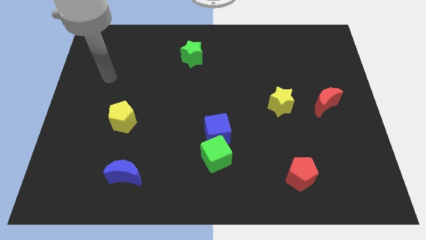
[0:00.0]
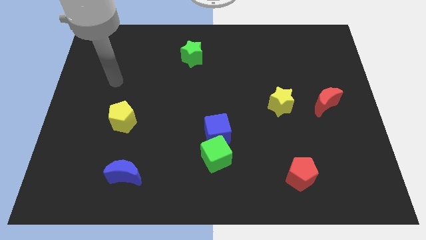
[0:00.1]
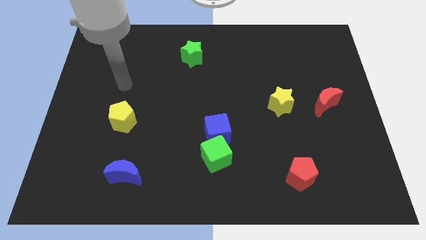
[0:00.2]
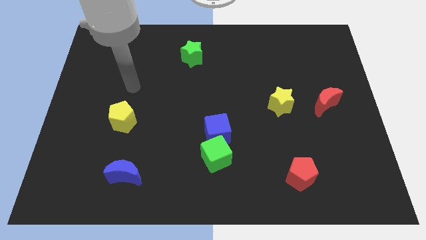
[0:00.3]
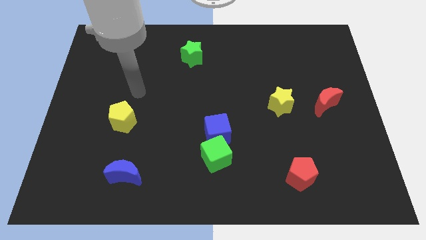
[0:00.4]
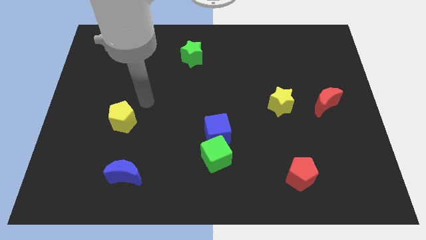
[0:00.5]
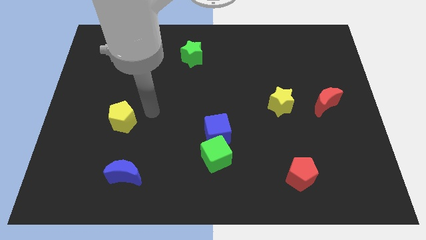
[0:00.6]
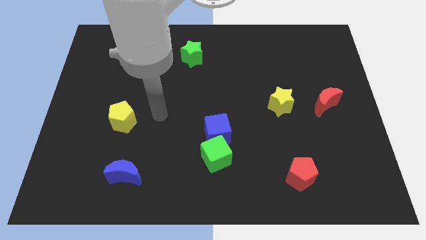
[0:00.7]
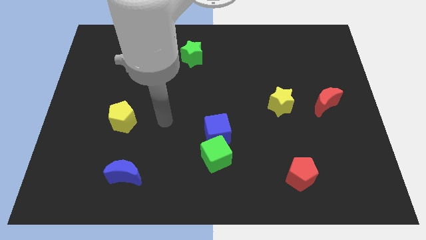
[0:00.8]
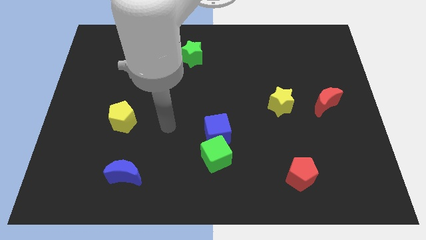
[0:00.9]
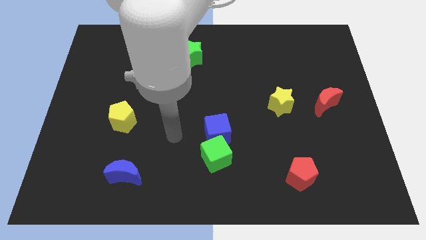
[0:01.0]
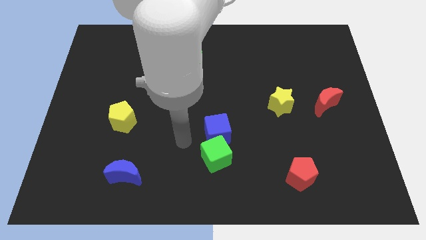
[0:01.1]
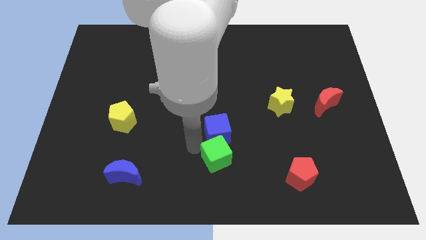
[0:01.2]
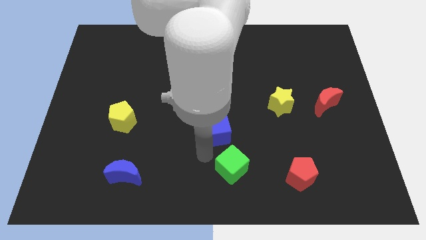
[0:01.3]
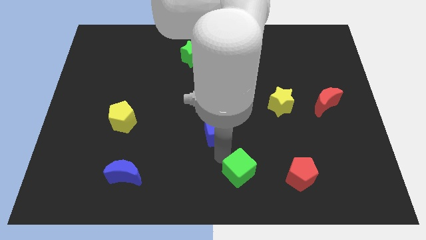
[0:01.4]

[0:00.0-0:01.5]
move the blue cube away from the green cube

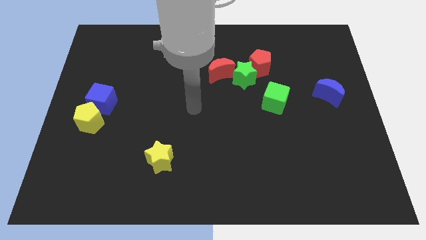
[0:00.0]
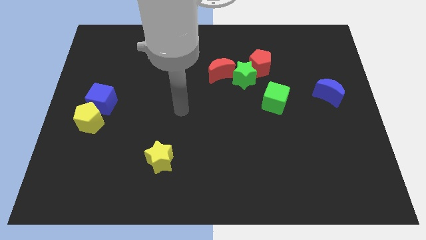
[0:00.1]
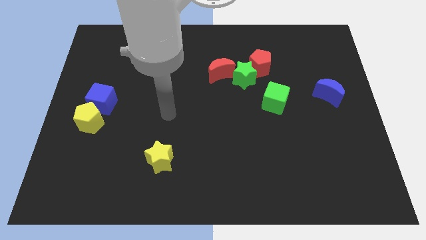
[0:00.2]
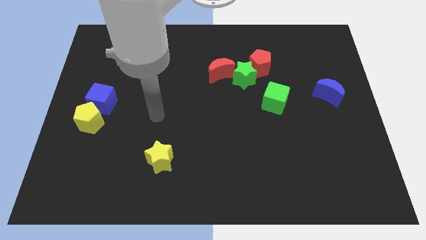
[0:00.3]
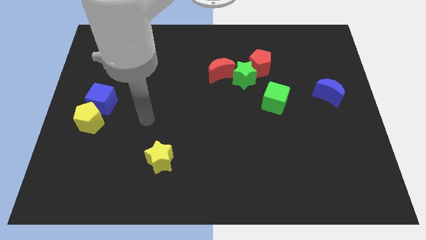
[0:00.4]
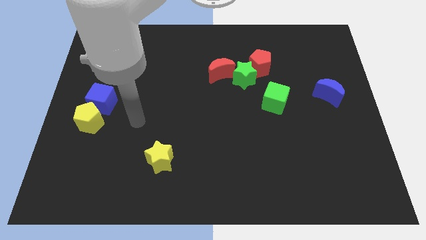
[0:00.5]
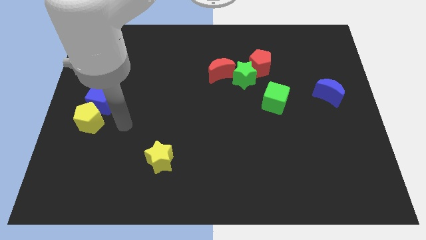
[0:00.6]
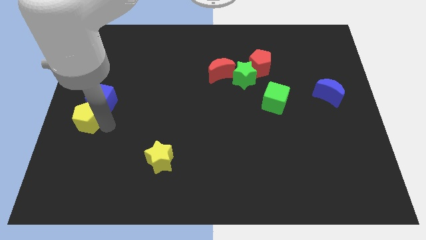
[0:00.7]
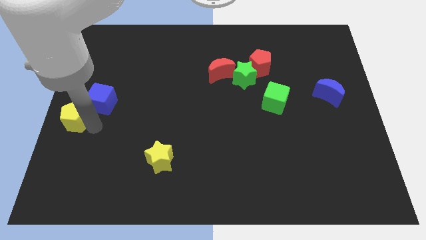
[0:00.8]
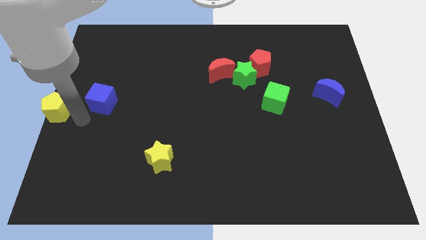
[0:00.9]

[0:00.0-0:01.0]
pull the blue cube apart from the yellow pentagon

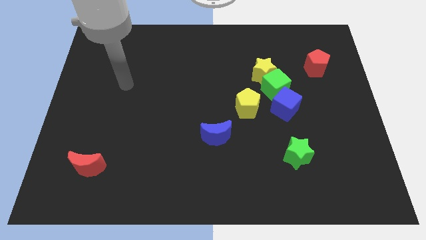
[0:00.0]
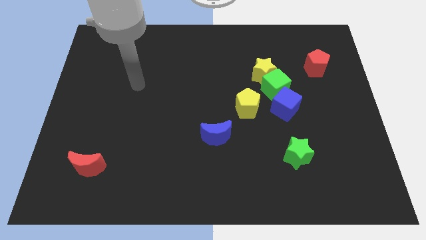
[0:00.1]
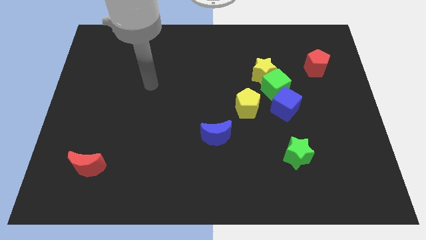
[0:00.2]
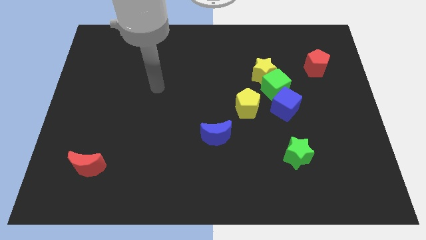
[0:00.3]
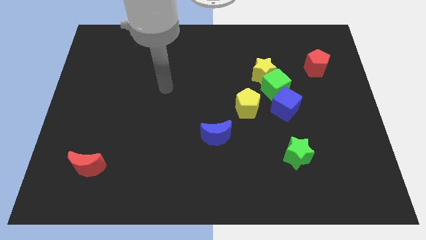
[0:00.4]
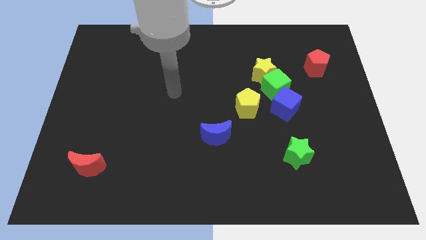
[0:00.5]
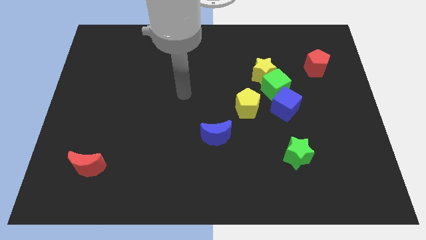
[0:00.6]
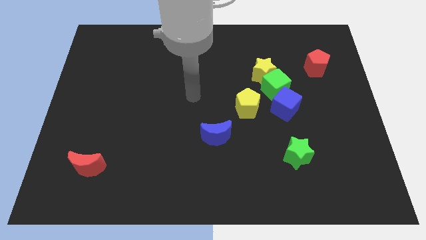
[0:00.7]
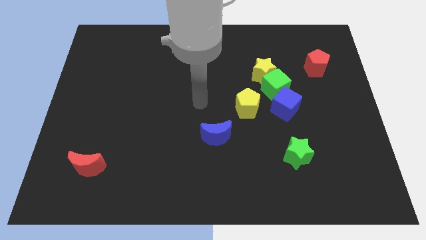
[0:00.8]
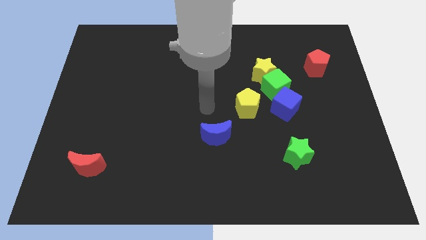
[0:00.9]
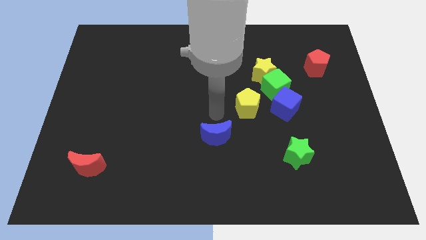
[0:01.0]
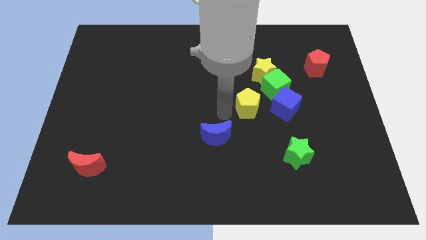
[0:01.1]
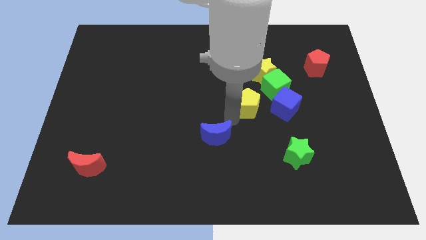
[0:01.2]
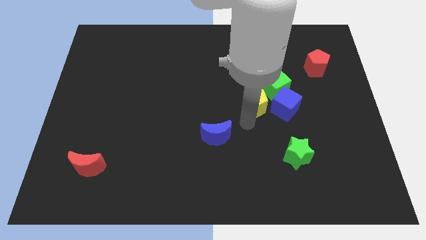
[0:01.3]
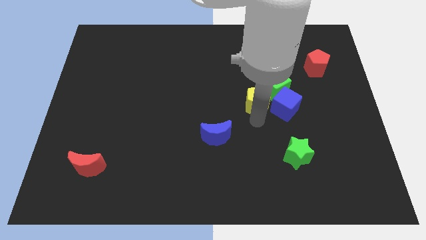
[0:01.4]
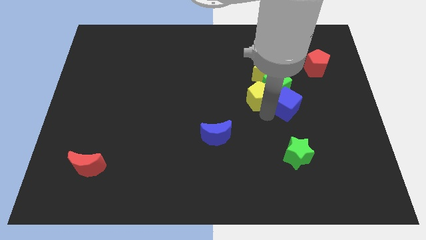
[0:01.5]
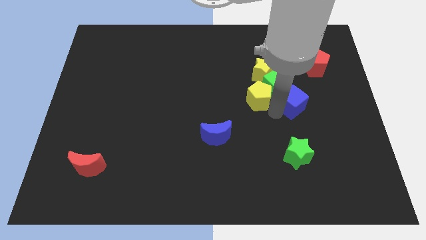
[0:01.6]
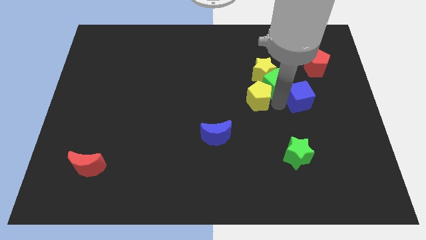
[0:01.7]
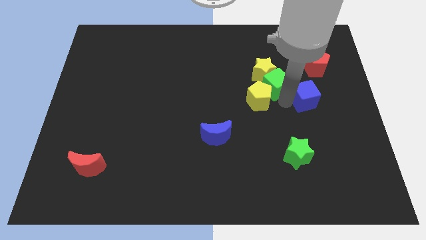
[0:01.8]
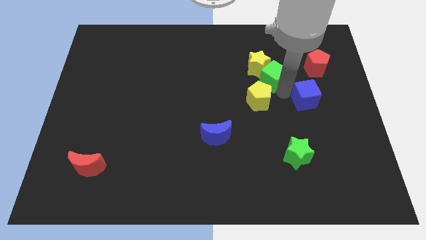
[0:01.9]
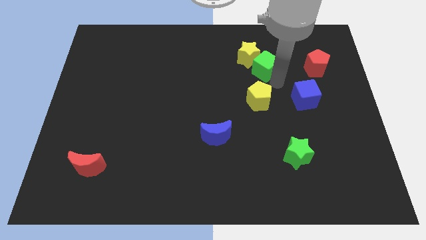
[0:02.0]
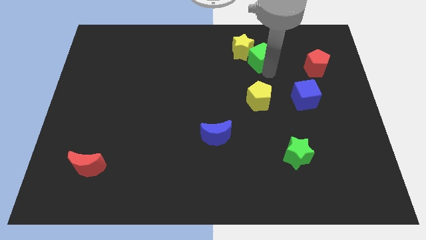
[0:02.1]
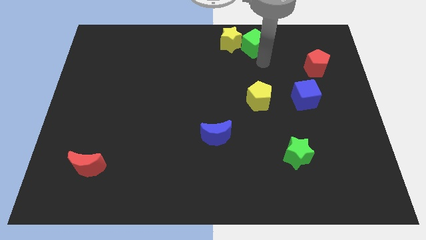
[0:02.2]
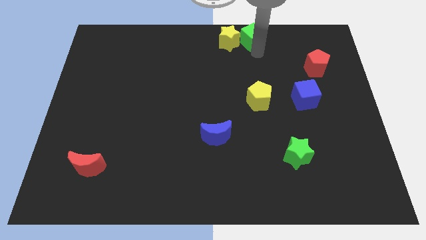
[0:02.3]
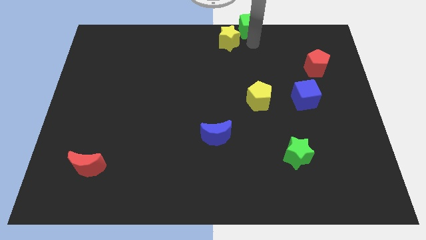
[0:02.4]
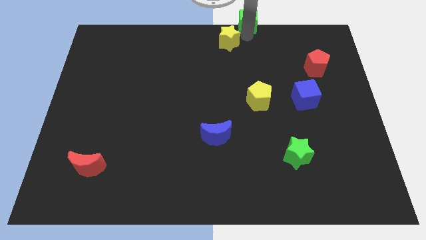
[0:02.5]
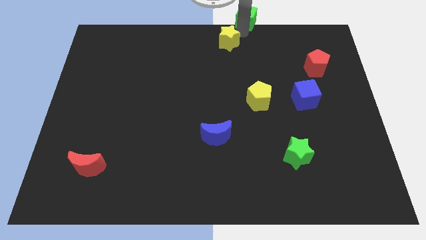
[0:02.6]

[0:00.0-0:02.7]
separate the yellow star from the green cube

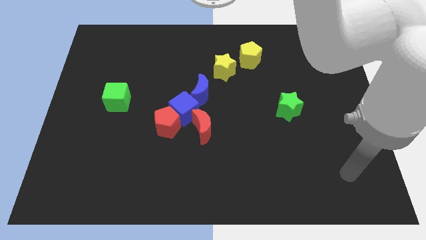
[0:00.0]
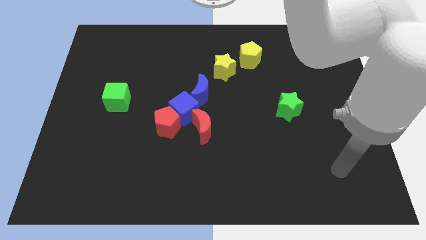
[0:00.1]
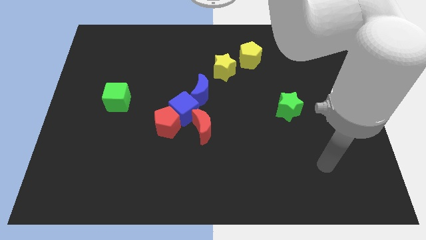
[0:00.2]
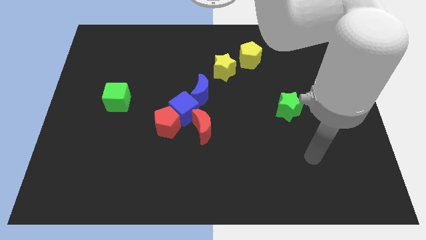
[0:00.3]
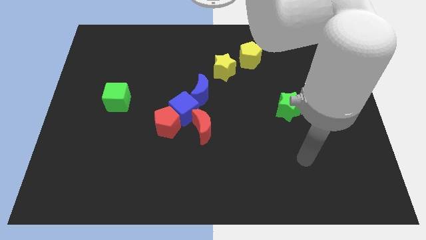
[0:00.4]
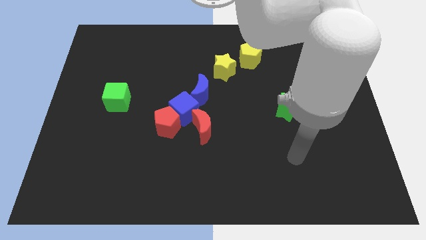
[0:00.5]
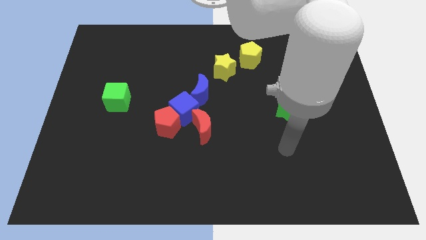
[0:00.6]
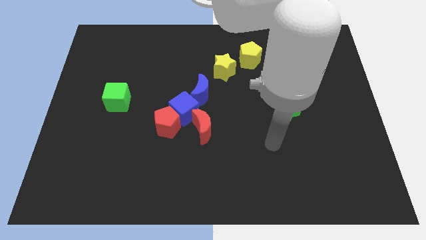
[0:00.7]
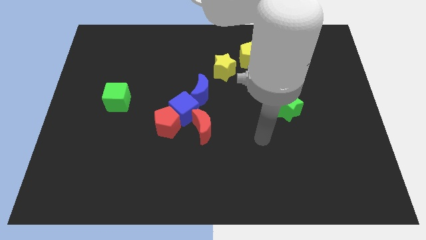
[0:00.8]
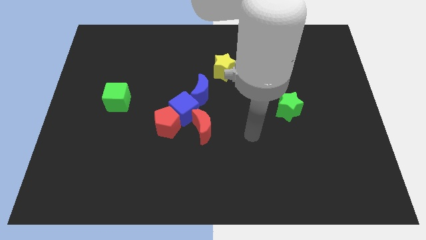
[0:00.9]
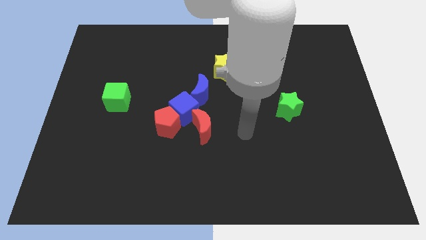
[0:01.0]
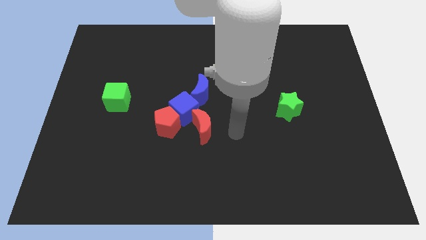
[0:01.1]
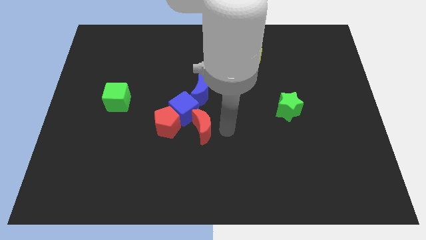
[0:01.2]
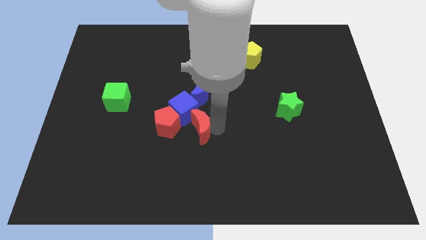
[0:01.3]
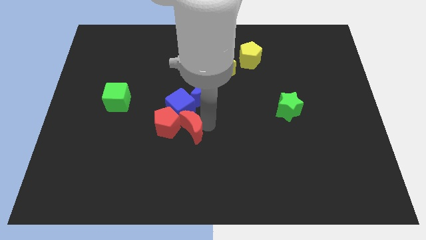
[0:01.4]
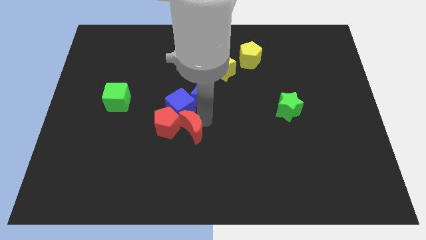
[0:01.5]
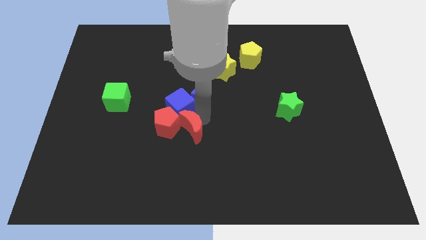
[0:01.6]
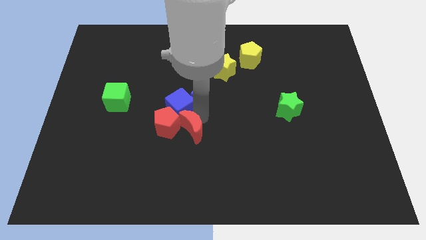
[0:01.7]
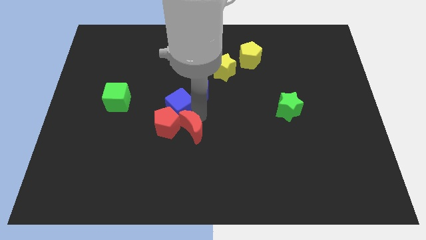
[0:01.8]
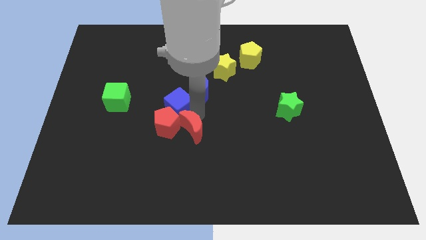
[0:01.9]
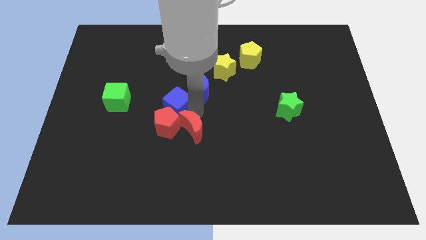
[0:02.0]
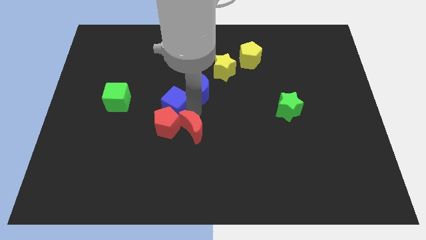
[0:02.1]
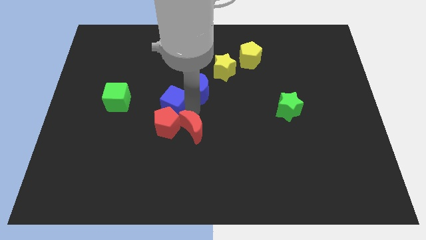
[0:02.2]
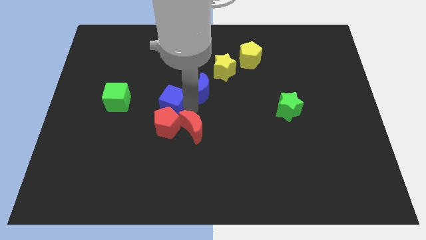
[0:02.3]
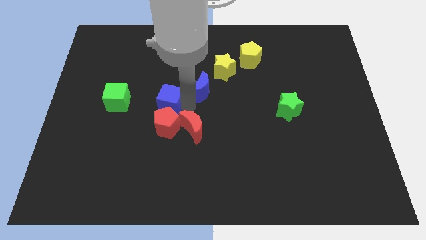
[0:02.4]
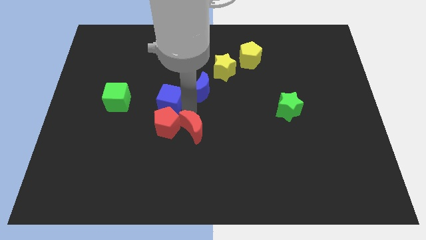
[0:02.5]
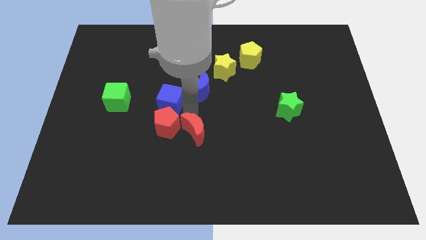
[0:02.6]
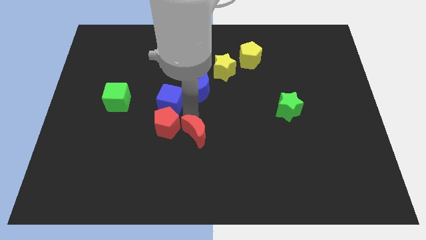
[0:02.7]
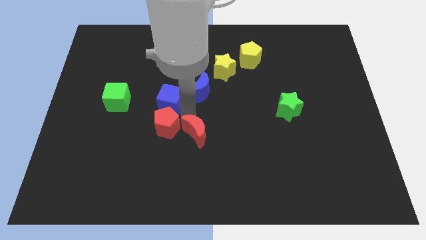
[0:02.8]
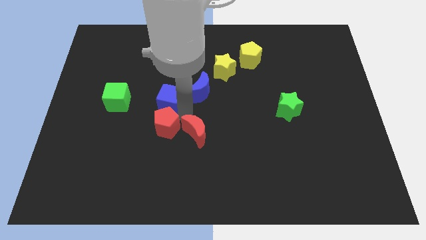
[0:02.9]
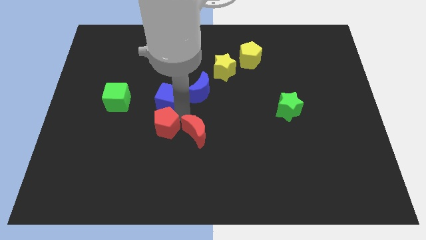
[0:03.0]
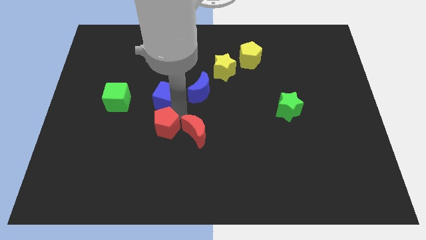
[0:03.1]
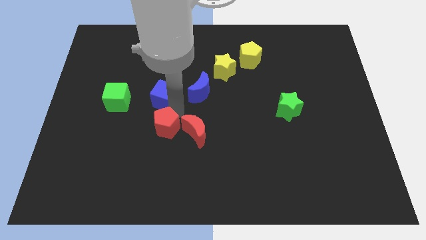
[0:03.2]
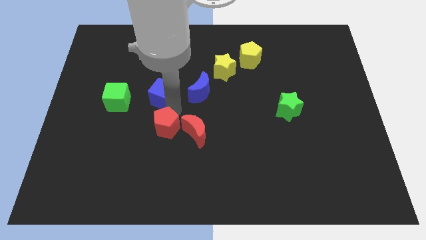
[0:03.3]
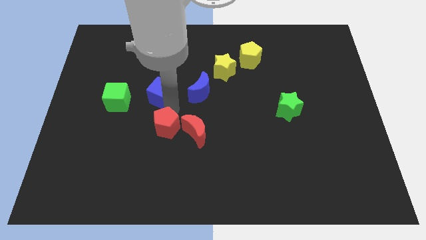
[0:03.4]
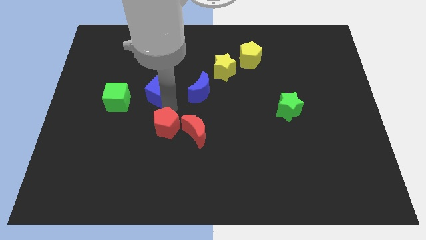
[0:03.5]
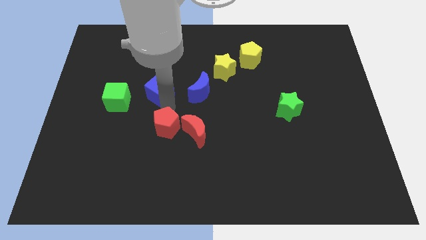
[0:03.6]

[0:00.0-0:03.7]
separate the blue cube from the red pentagon, red moon, and blue moon

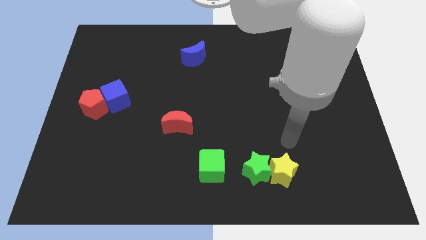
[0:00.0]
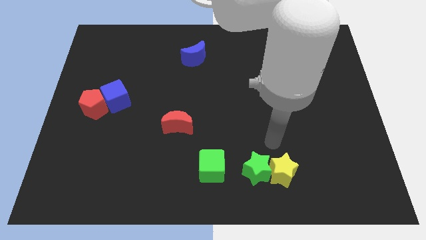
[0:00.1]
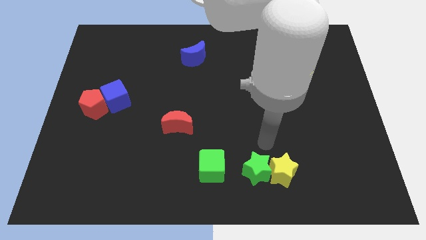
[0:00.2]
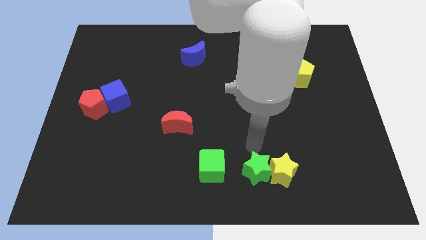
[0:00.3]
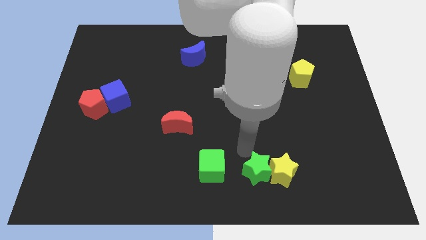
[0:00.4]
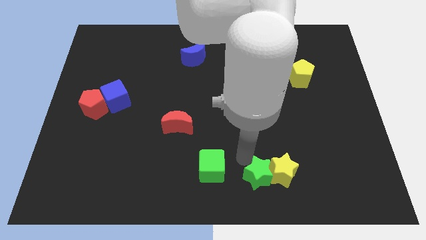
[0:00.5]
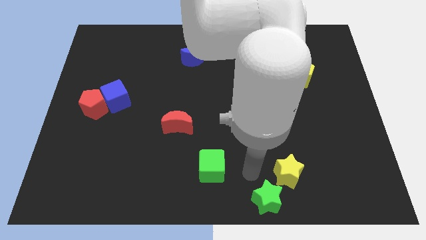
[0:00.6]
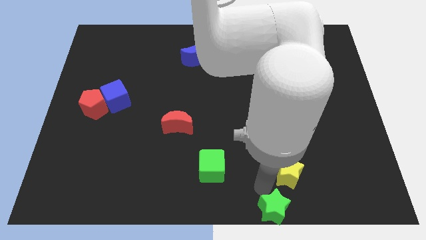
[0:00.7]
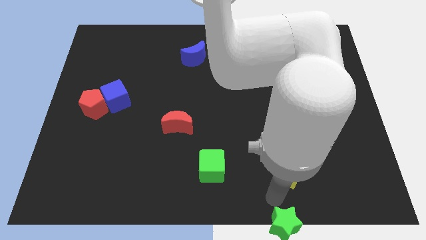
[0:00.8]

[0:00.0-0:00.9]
separate the yellow star from the green star
